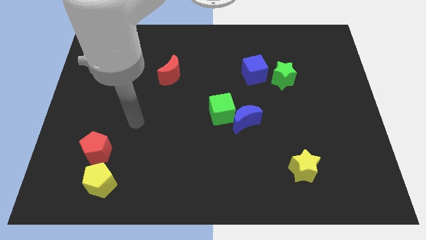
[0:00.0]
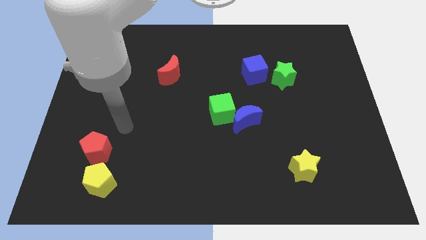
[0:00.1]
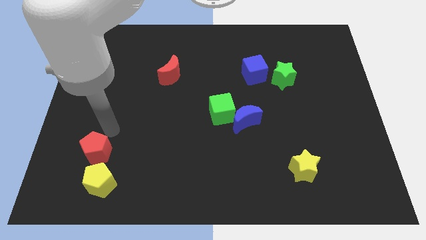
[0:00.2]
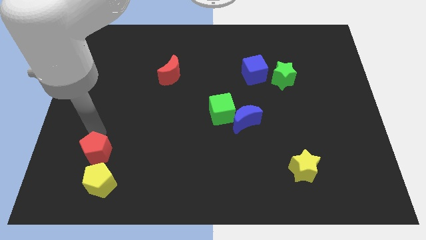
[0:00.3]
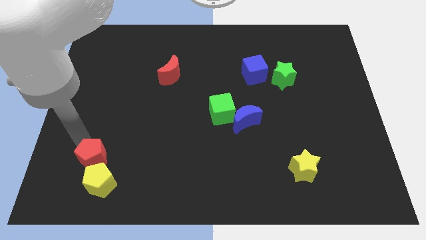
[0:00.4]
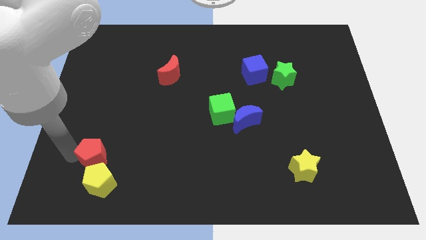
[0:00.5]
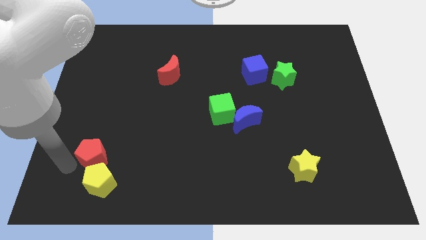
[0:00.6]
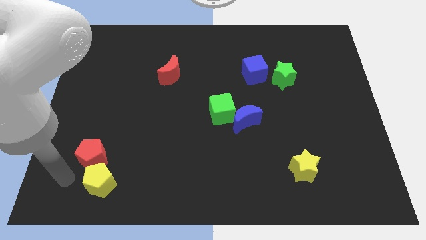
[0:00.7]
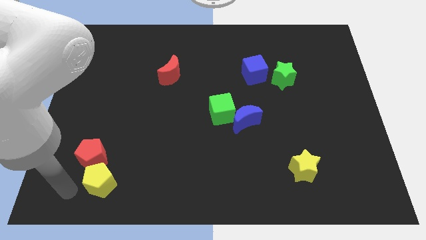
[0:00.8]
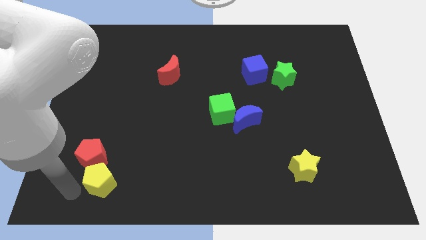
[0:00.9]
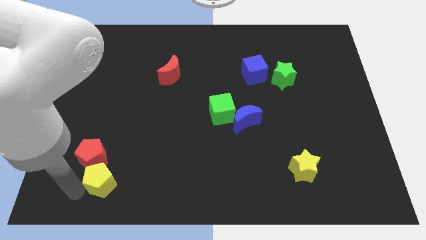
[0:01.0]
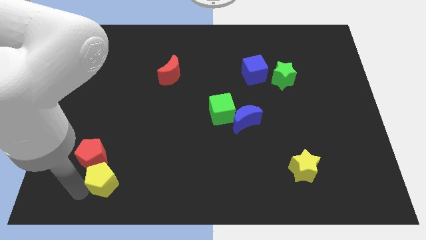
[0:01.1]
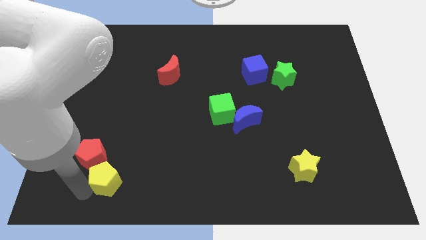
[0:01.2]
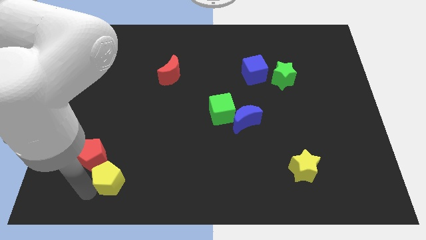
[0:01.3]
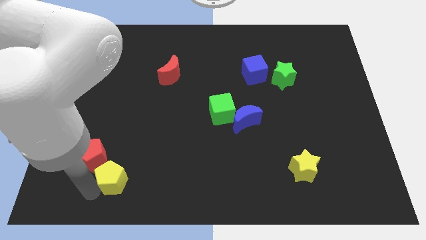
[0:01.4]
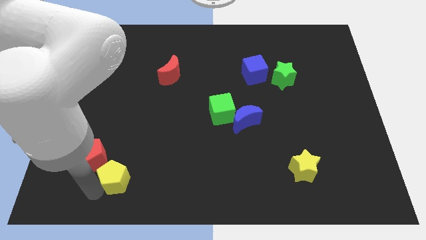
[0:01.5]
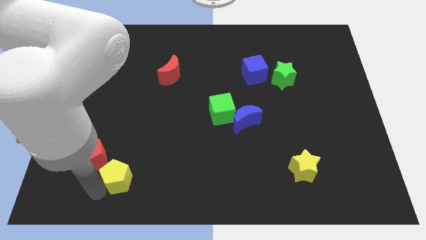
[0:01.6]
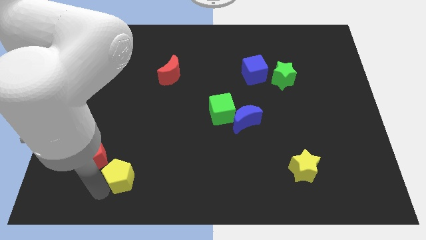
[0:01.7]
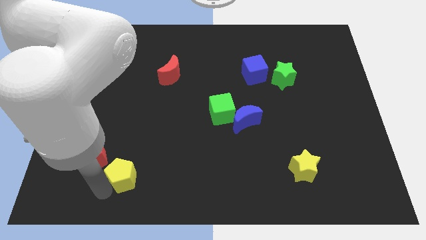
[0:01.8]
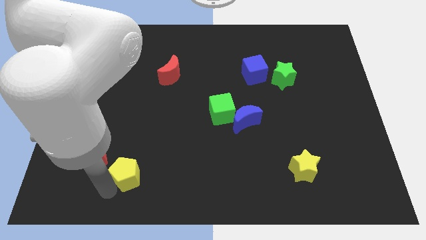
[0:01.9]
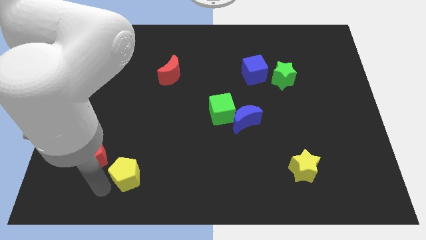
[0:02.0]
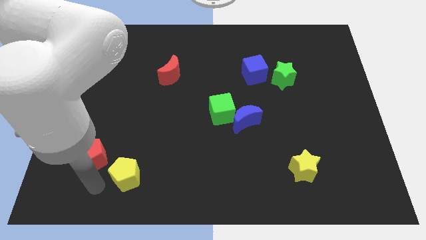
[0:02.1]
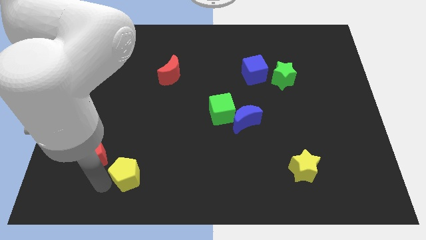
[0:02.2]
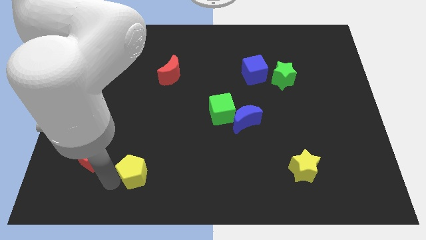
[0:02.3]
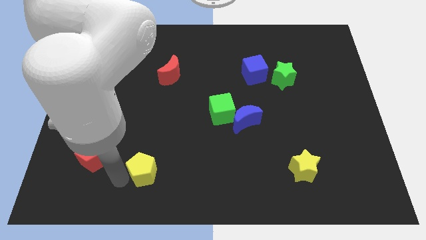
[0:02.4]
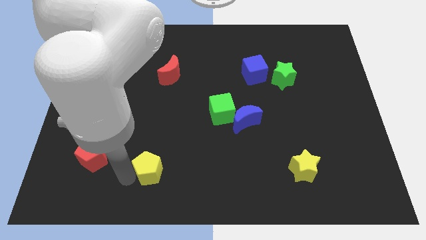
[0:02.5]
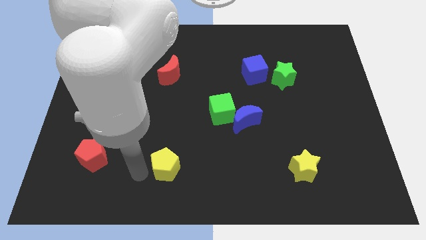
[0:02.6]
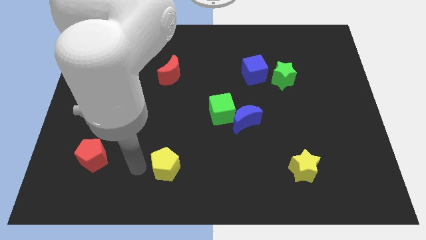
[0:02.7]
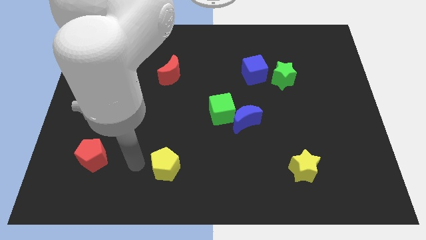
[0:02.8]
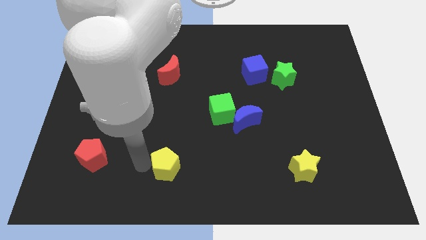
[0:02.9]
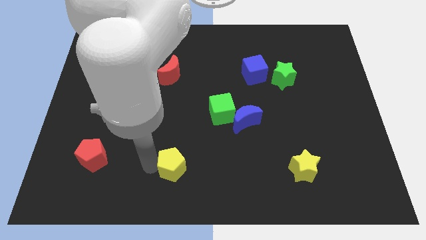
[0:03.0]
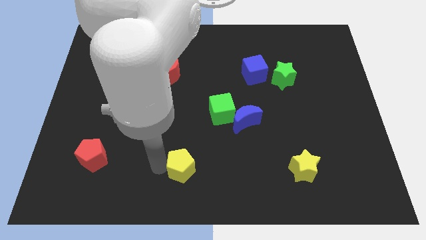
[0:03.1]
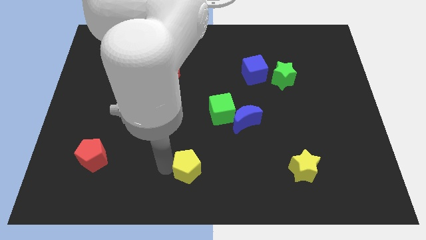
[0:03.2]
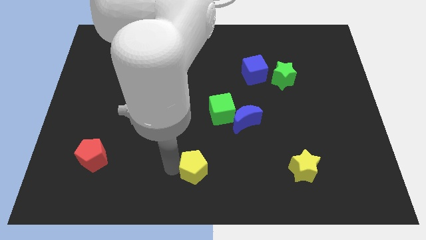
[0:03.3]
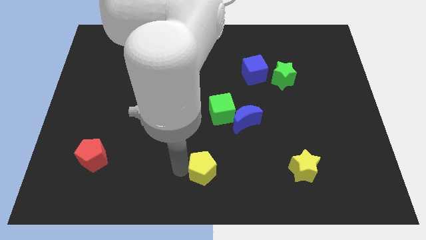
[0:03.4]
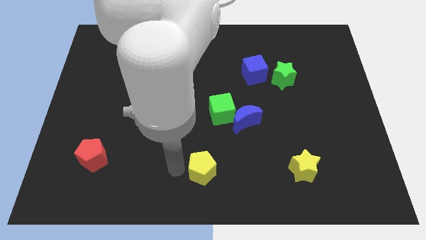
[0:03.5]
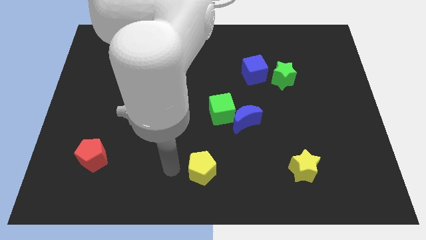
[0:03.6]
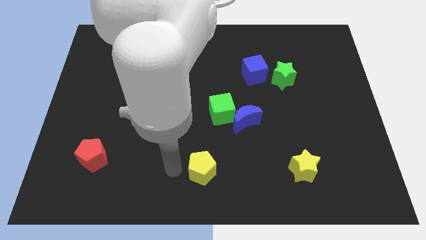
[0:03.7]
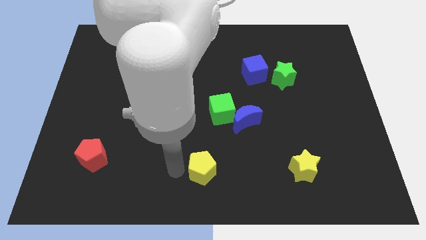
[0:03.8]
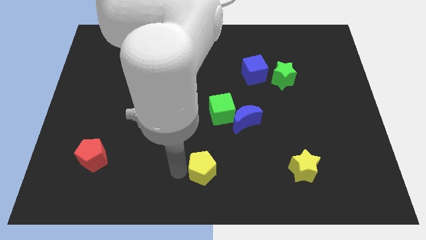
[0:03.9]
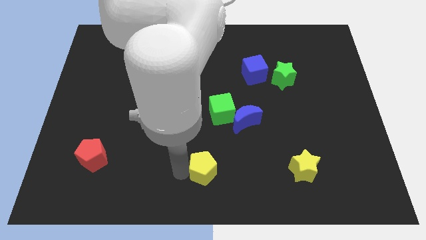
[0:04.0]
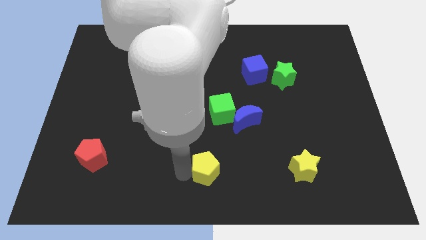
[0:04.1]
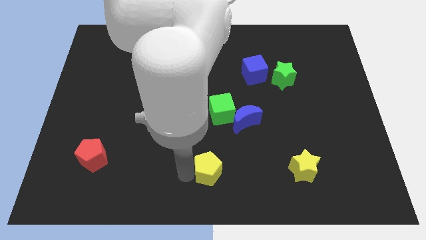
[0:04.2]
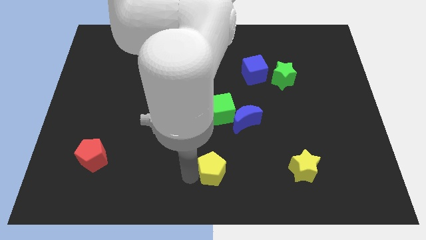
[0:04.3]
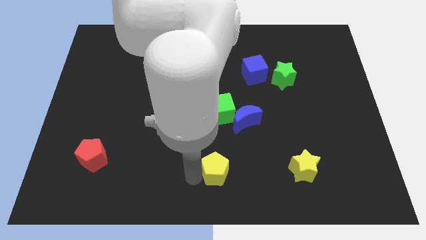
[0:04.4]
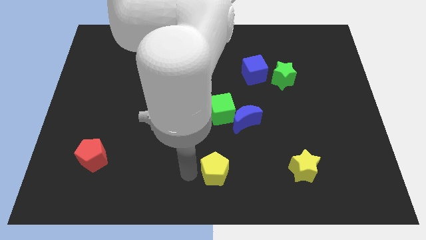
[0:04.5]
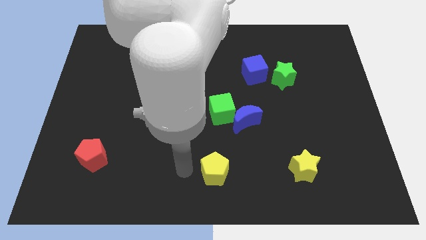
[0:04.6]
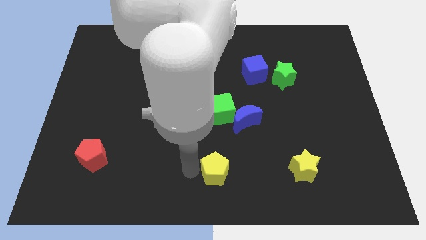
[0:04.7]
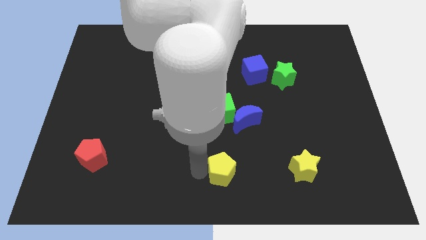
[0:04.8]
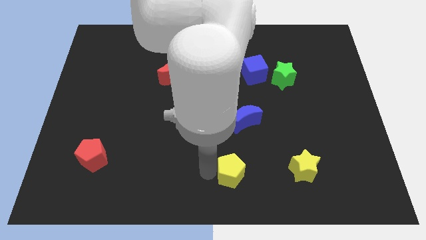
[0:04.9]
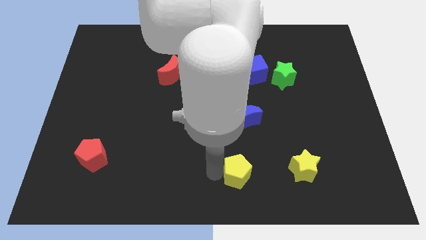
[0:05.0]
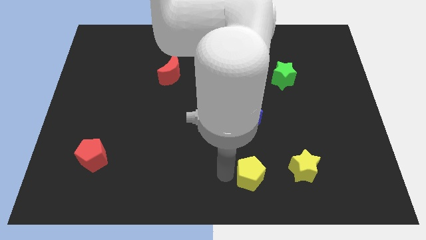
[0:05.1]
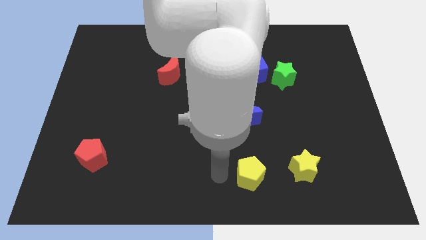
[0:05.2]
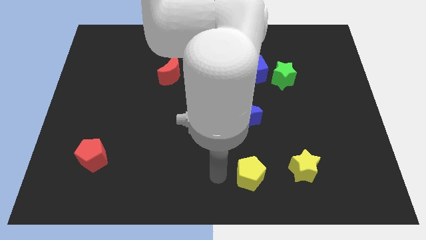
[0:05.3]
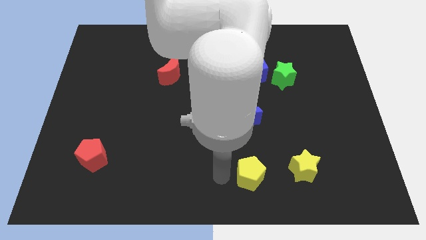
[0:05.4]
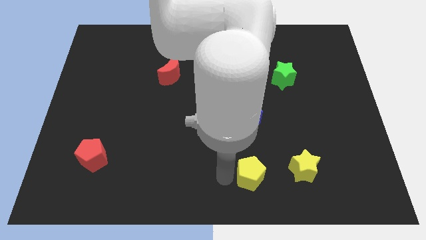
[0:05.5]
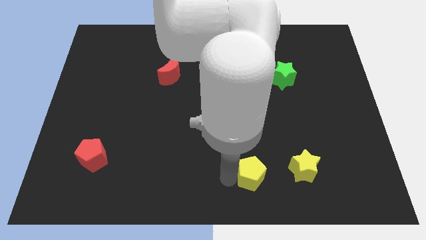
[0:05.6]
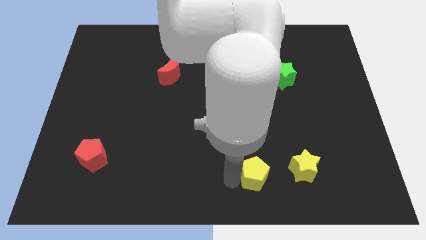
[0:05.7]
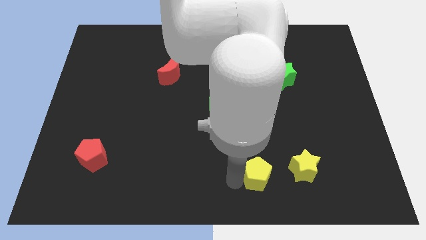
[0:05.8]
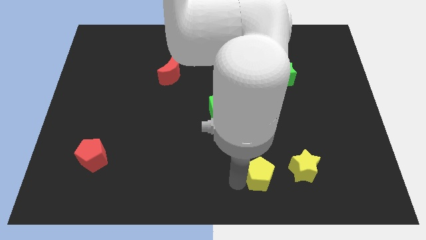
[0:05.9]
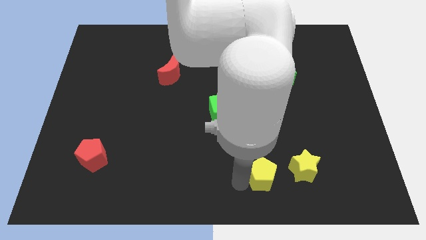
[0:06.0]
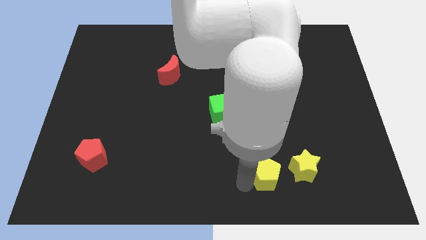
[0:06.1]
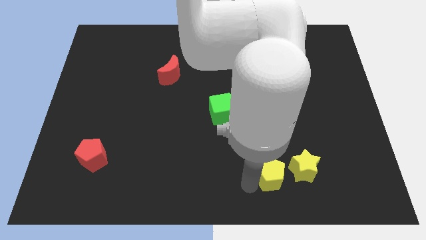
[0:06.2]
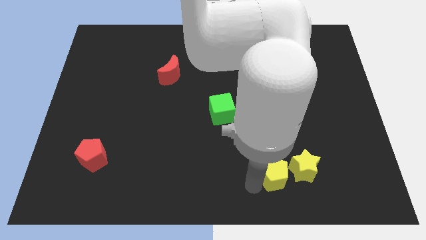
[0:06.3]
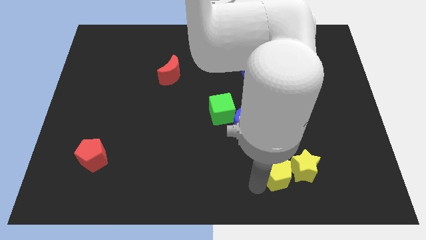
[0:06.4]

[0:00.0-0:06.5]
put the yellow pentagon close to the yellow star
